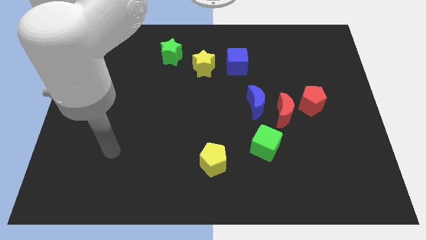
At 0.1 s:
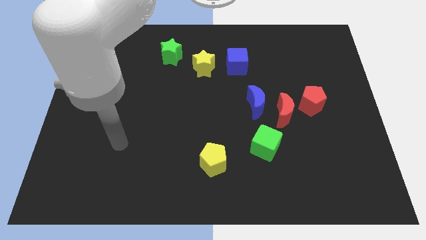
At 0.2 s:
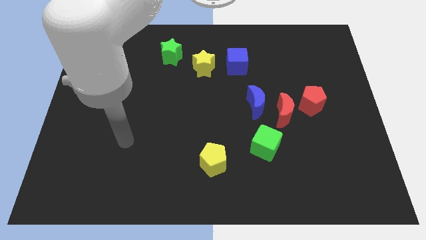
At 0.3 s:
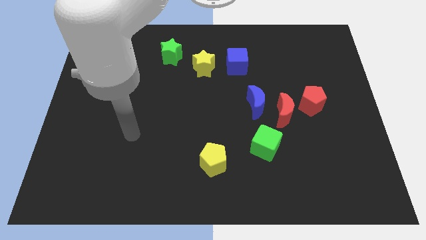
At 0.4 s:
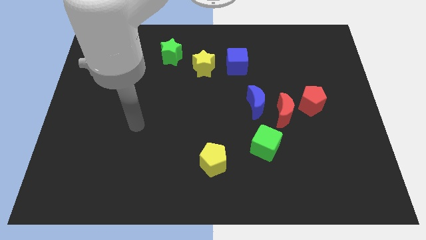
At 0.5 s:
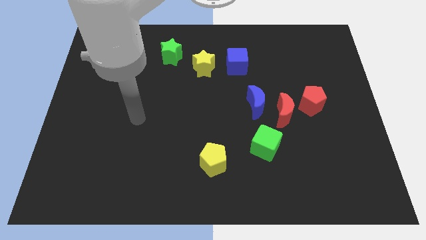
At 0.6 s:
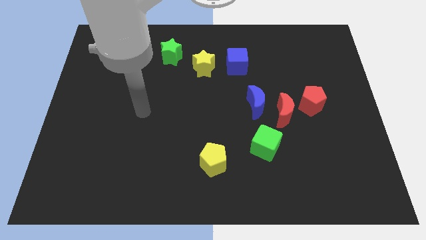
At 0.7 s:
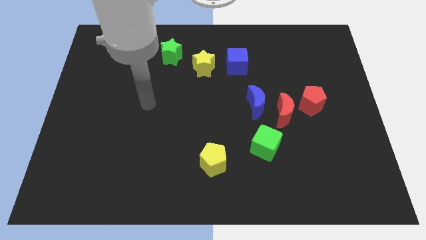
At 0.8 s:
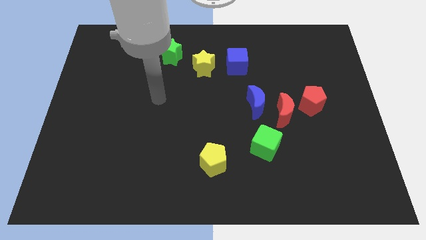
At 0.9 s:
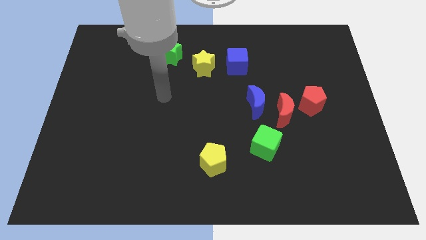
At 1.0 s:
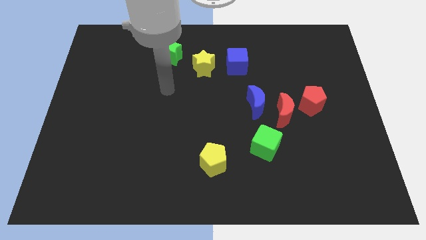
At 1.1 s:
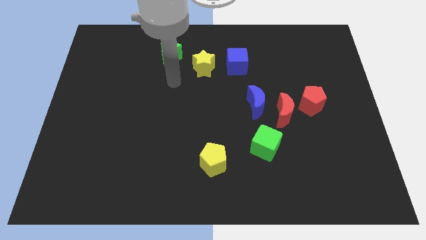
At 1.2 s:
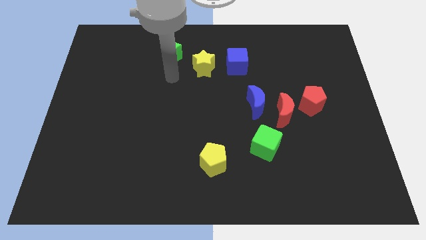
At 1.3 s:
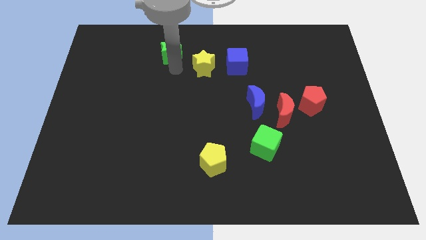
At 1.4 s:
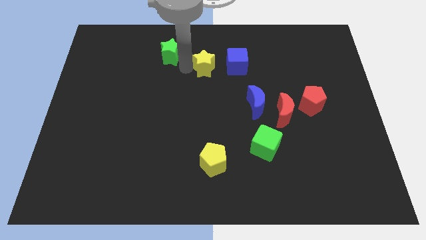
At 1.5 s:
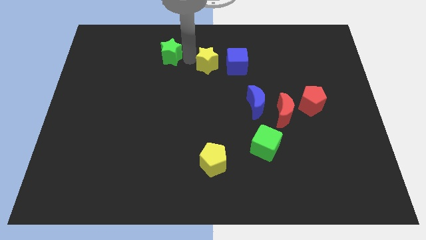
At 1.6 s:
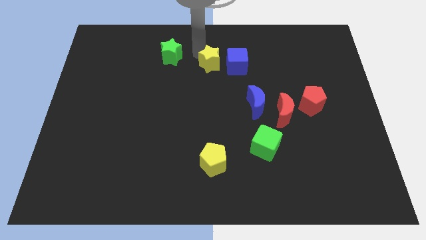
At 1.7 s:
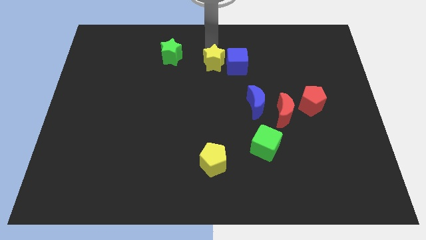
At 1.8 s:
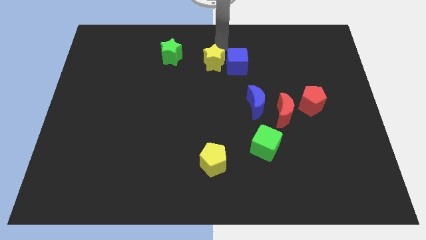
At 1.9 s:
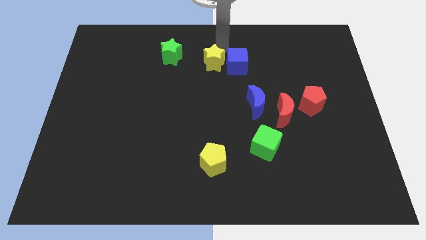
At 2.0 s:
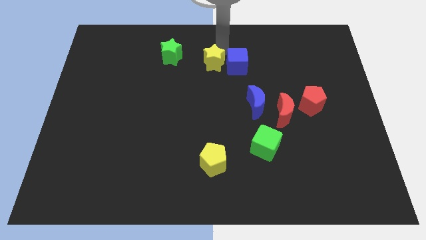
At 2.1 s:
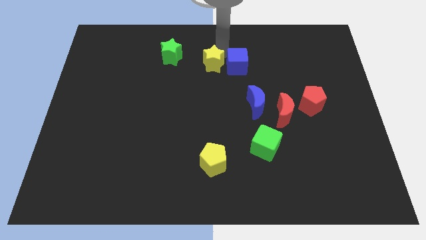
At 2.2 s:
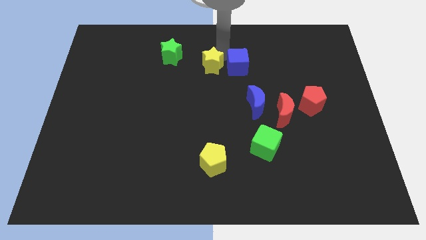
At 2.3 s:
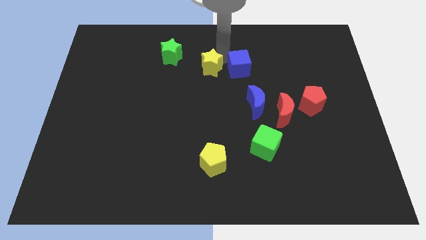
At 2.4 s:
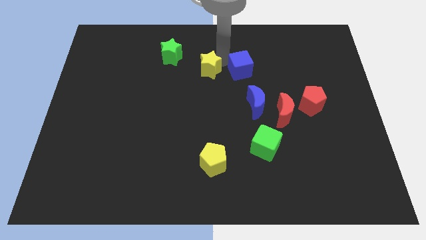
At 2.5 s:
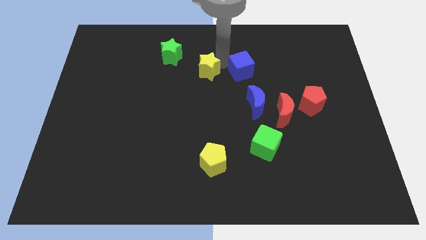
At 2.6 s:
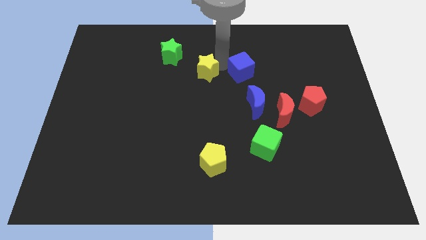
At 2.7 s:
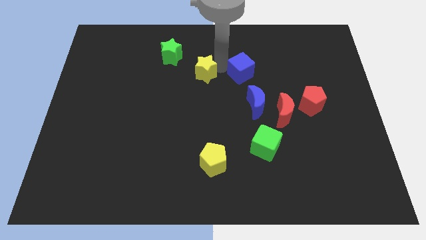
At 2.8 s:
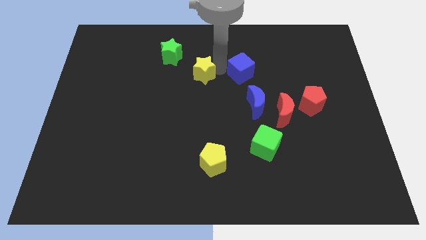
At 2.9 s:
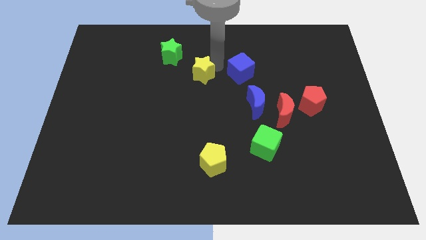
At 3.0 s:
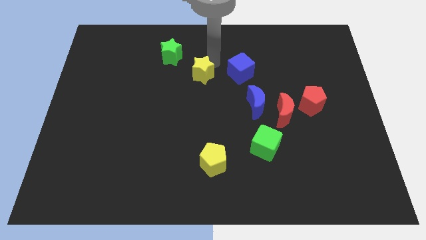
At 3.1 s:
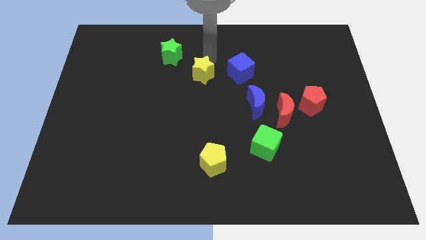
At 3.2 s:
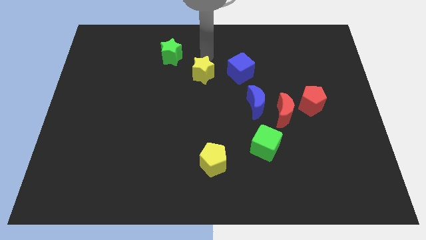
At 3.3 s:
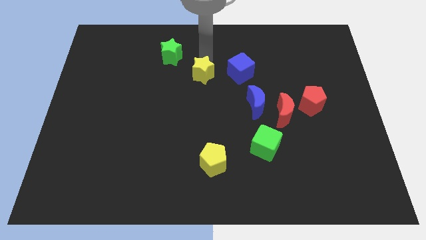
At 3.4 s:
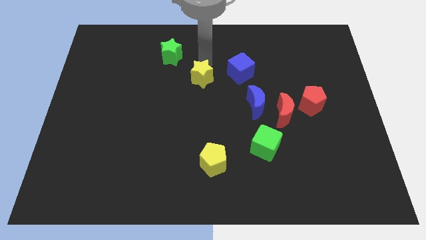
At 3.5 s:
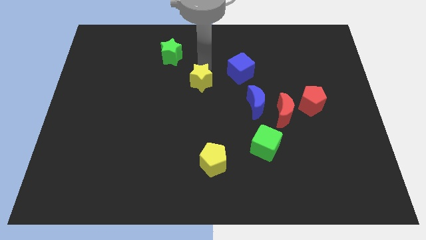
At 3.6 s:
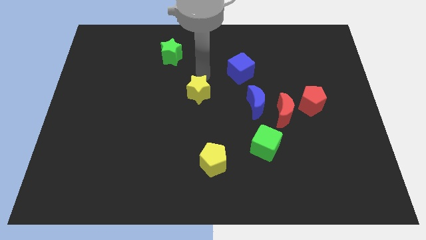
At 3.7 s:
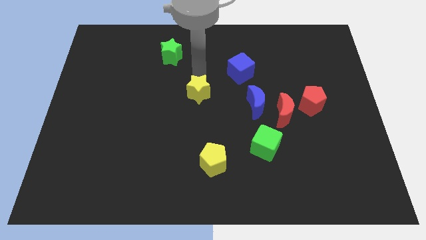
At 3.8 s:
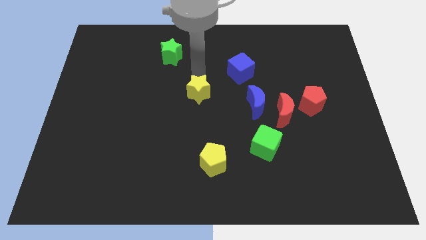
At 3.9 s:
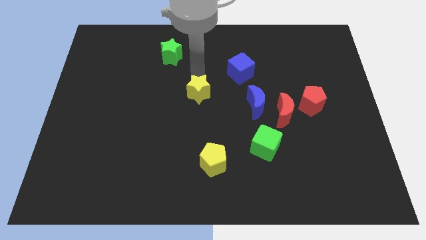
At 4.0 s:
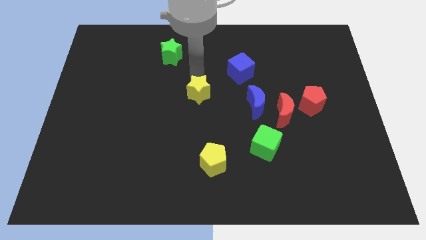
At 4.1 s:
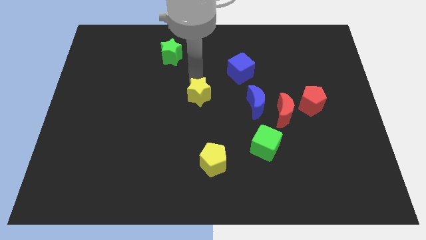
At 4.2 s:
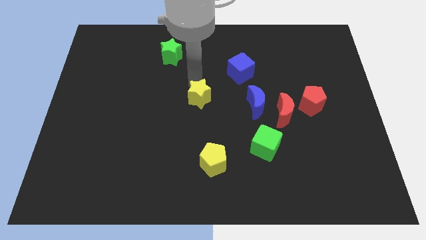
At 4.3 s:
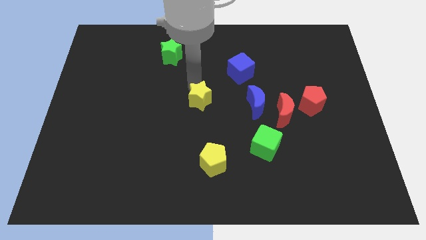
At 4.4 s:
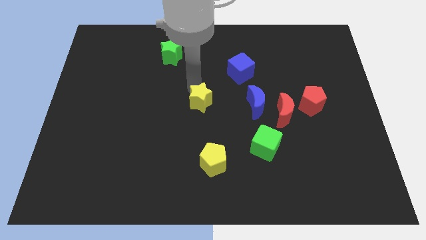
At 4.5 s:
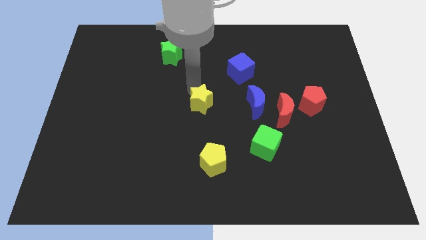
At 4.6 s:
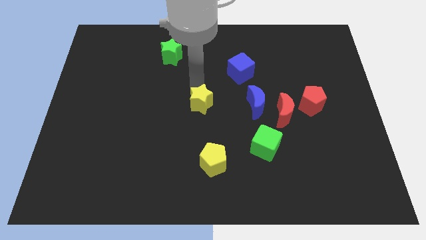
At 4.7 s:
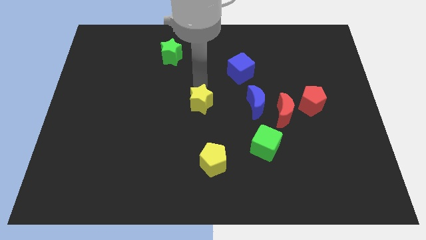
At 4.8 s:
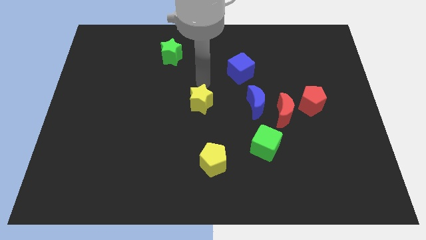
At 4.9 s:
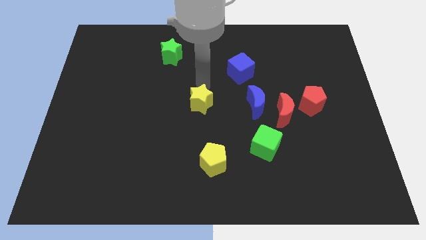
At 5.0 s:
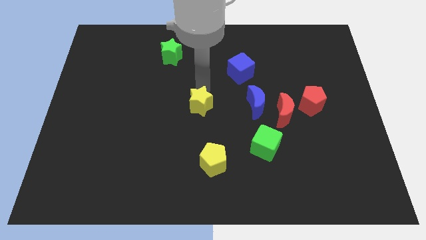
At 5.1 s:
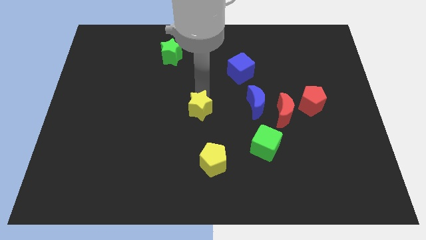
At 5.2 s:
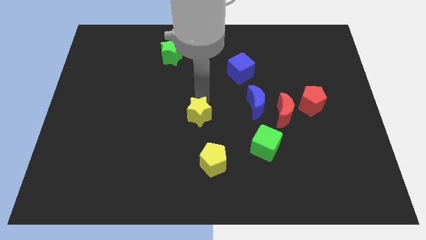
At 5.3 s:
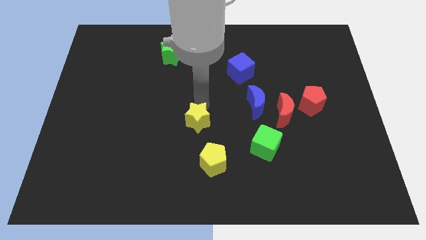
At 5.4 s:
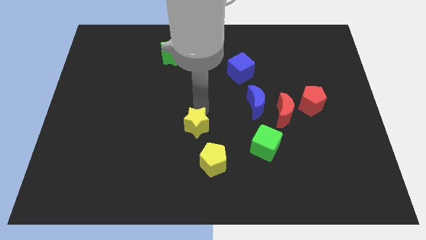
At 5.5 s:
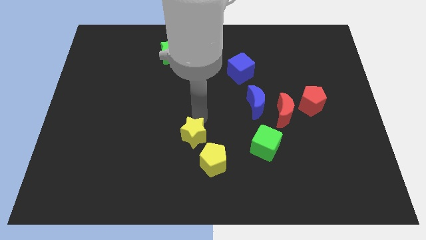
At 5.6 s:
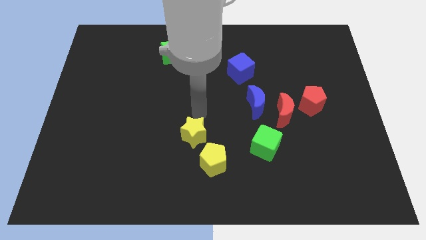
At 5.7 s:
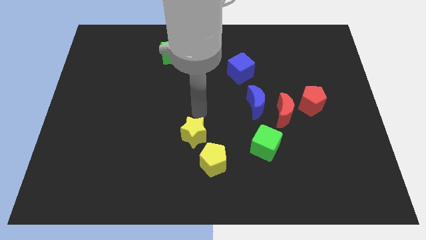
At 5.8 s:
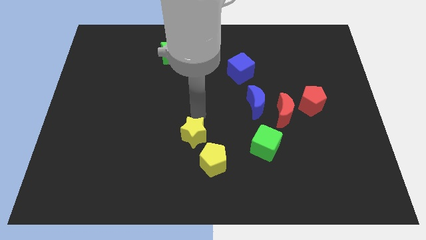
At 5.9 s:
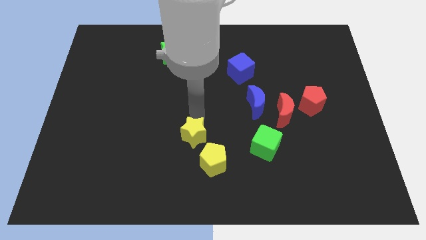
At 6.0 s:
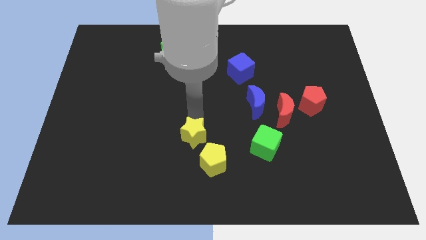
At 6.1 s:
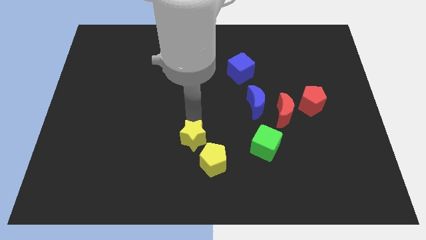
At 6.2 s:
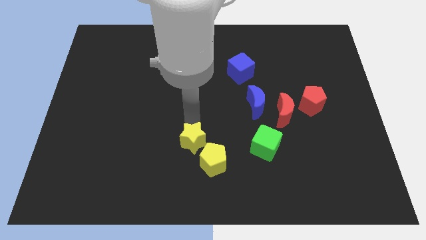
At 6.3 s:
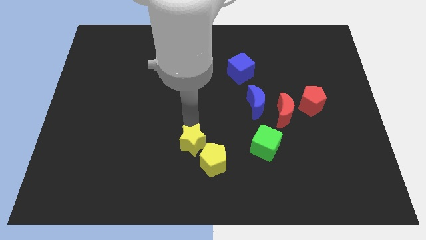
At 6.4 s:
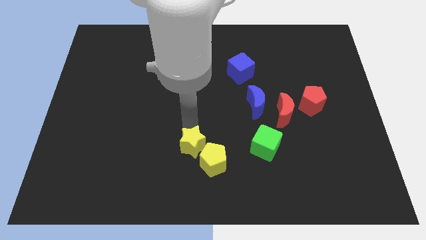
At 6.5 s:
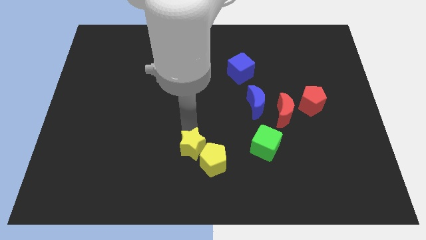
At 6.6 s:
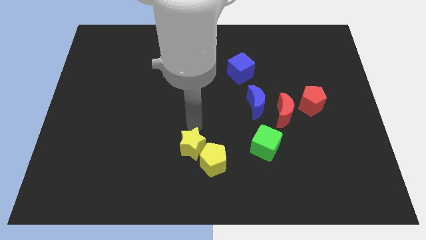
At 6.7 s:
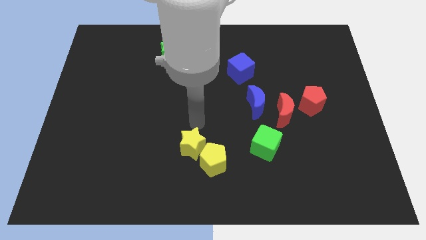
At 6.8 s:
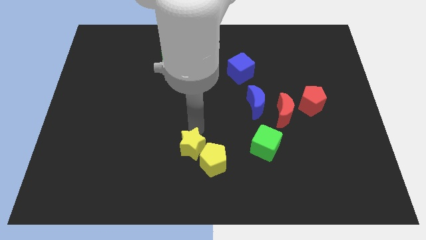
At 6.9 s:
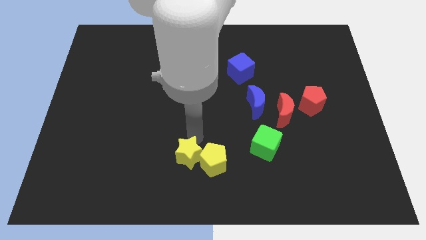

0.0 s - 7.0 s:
put the yellow star to the bottom left side of the yellow pentagon
